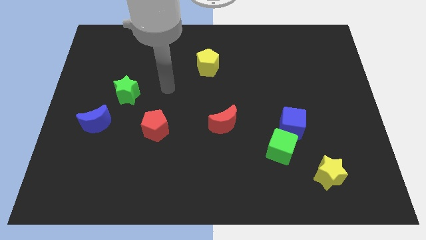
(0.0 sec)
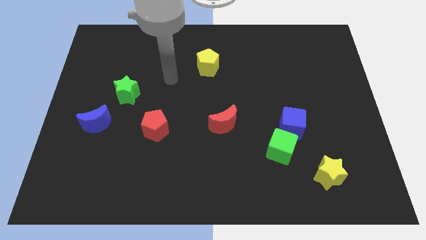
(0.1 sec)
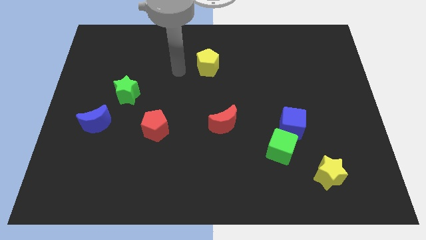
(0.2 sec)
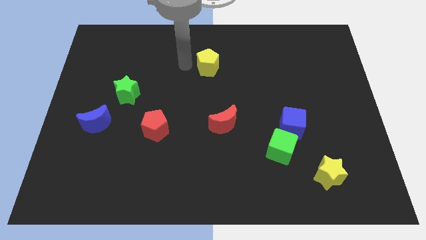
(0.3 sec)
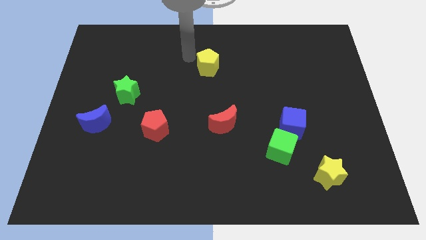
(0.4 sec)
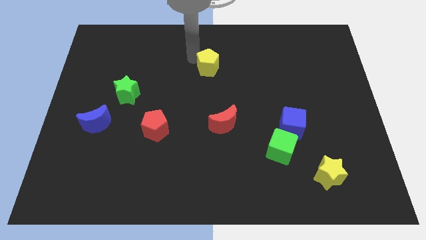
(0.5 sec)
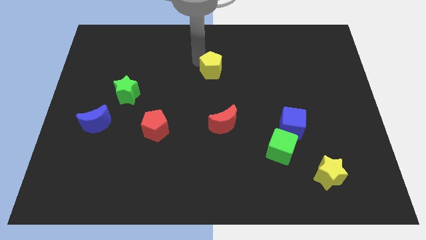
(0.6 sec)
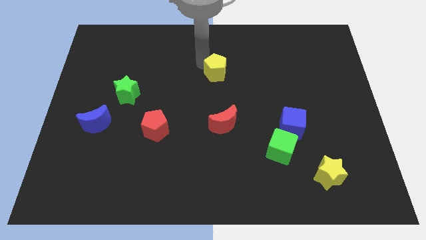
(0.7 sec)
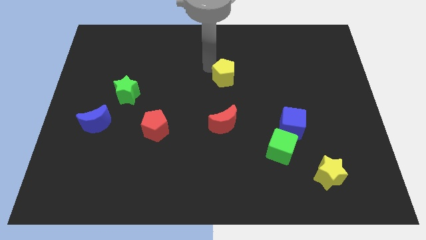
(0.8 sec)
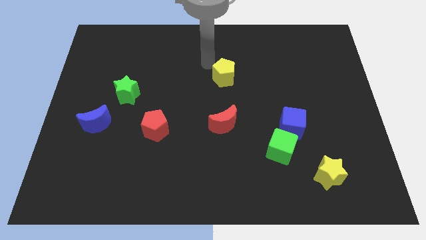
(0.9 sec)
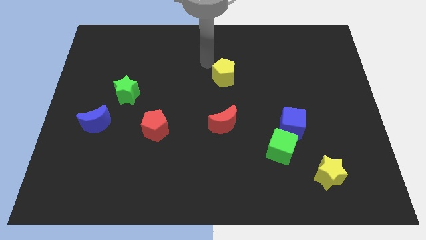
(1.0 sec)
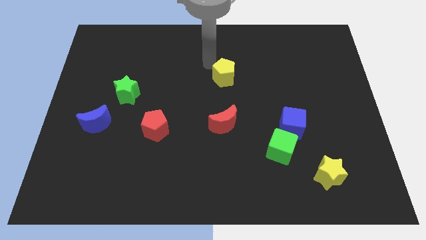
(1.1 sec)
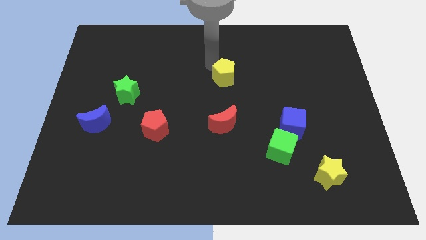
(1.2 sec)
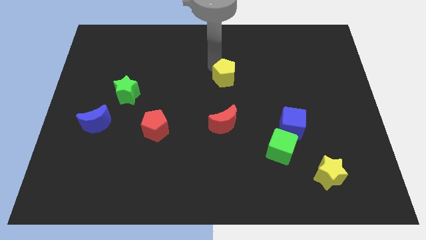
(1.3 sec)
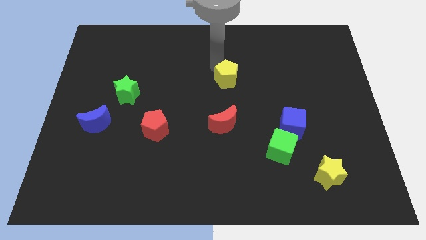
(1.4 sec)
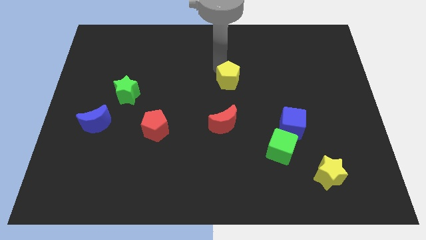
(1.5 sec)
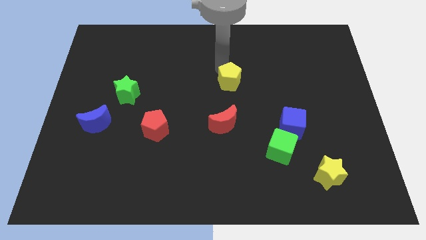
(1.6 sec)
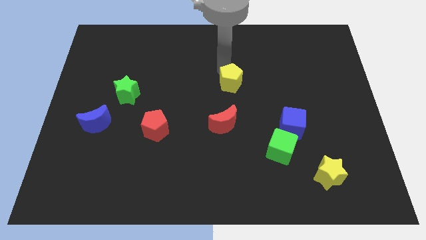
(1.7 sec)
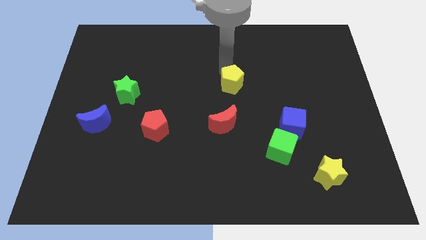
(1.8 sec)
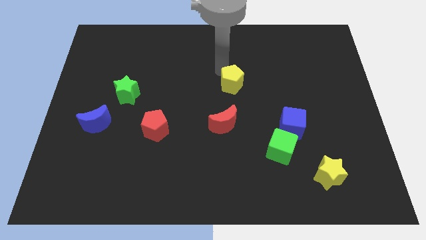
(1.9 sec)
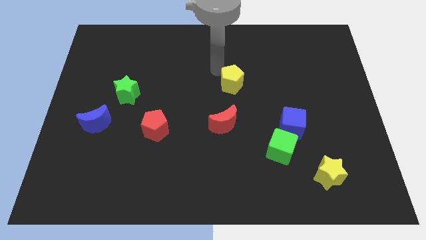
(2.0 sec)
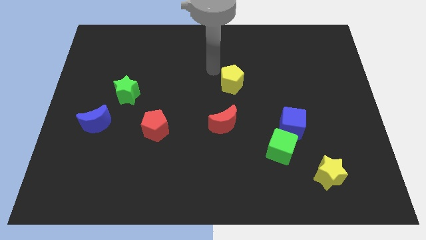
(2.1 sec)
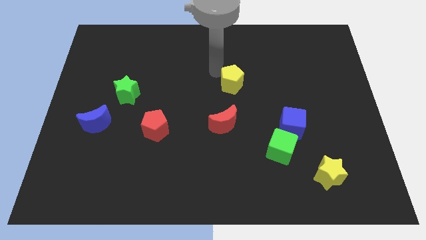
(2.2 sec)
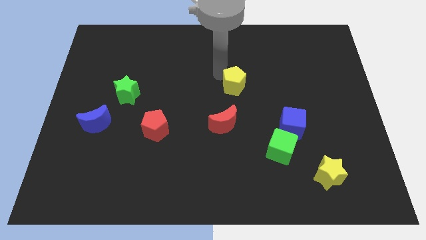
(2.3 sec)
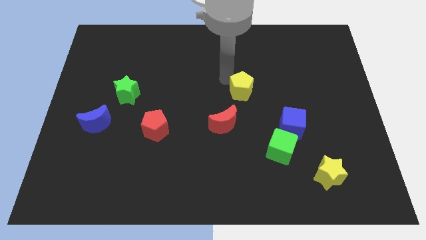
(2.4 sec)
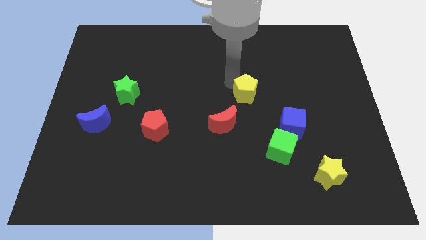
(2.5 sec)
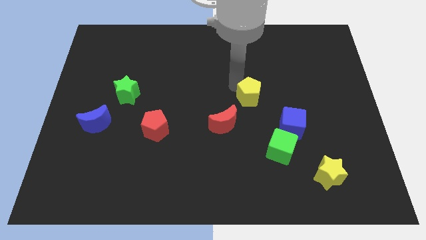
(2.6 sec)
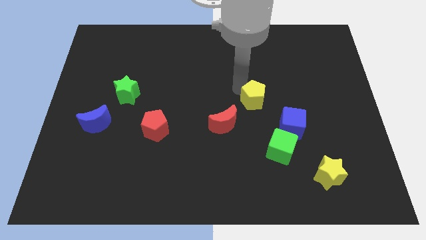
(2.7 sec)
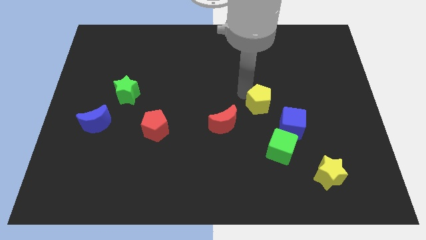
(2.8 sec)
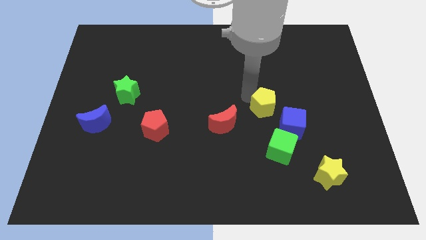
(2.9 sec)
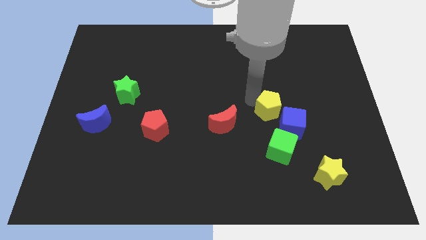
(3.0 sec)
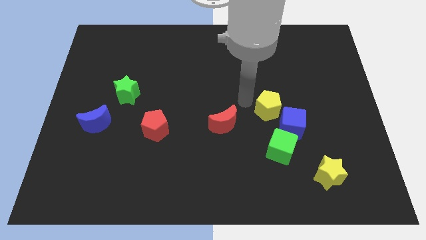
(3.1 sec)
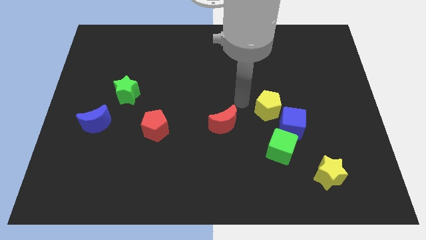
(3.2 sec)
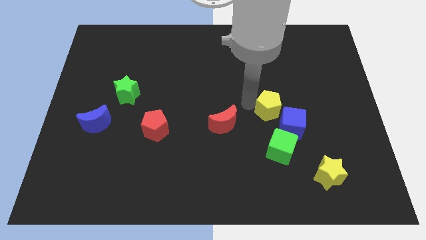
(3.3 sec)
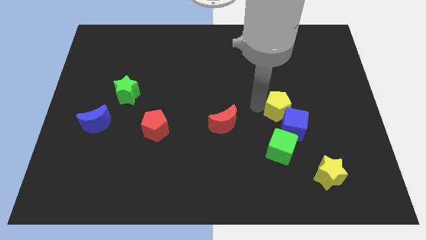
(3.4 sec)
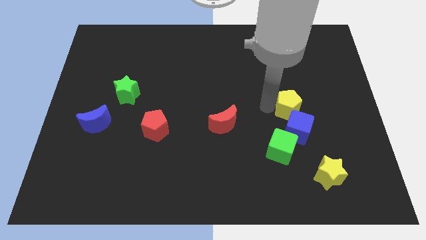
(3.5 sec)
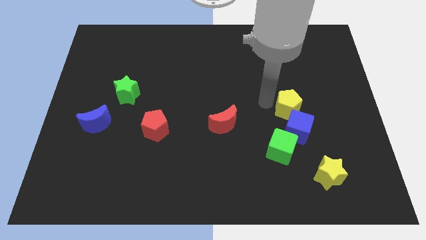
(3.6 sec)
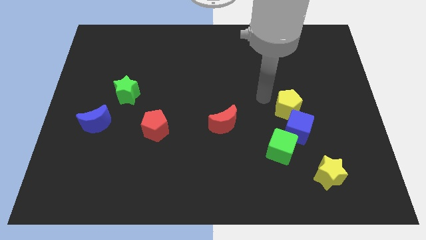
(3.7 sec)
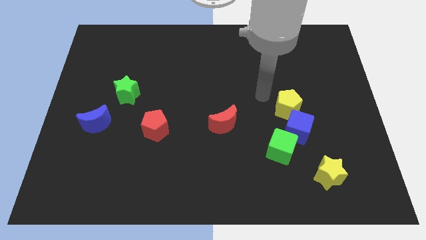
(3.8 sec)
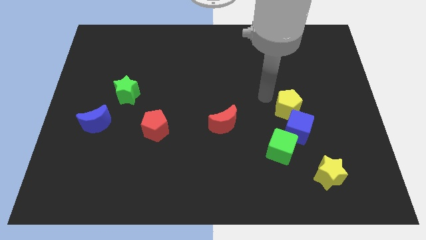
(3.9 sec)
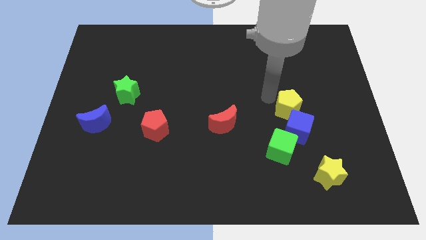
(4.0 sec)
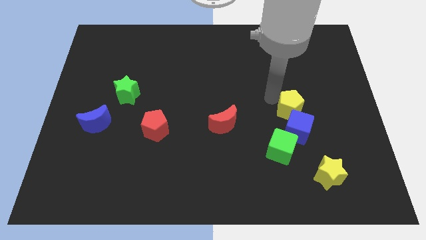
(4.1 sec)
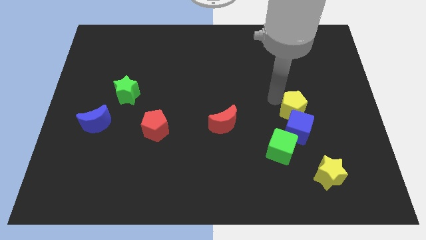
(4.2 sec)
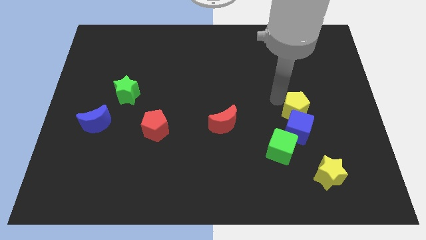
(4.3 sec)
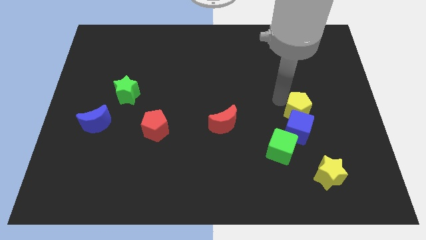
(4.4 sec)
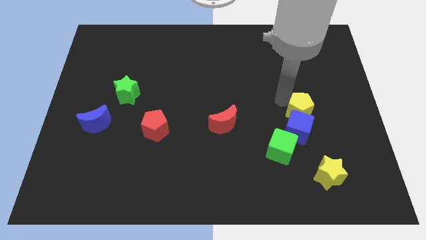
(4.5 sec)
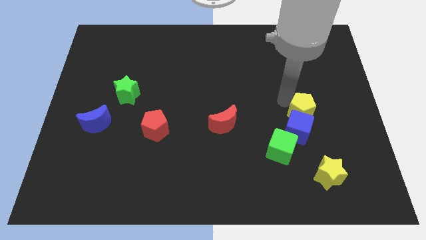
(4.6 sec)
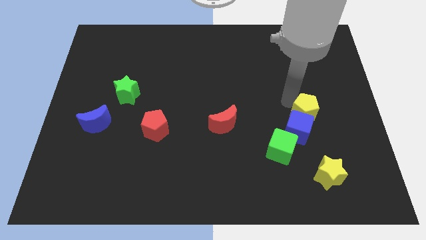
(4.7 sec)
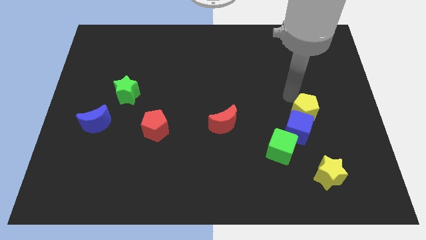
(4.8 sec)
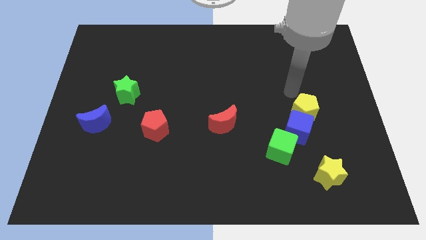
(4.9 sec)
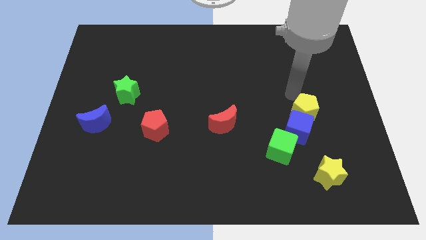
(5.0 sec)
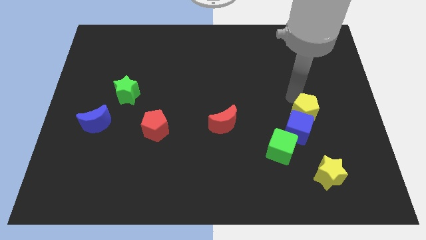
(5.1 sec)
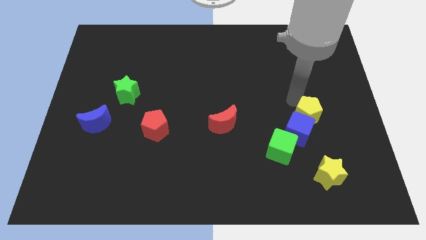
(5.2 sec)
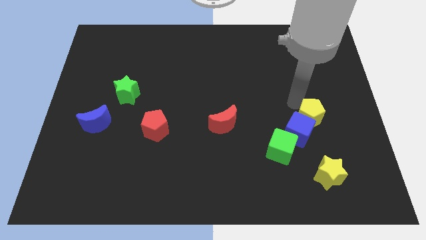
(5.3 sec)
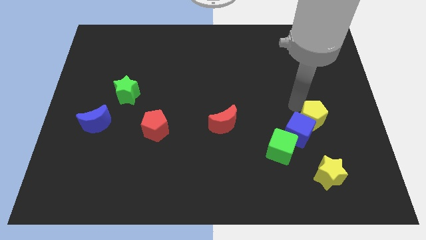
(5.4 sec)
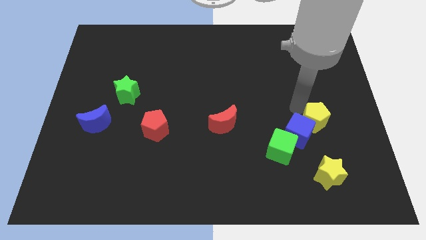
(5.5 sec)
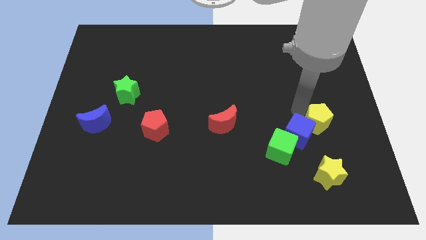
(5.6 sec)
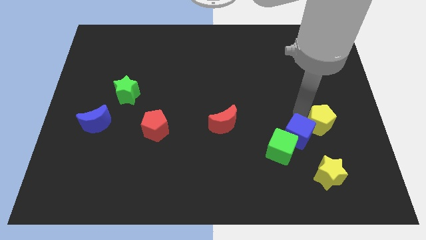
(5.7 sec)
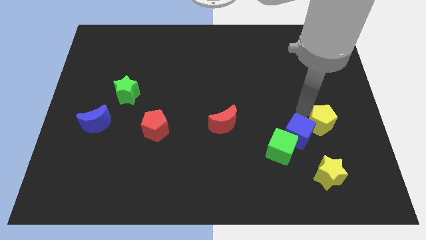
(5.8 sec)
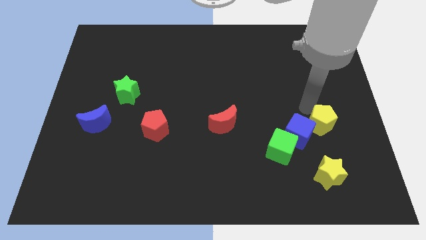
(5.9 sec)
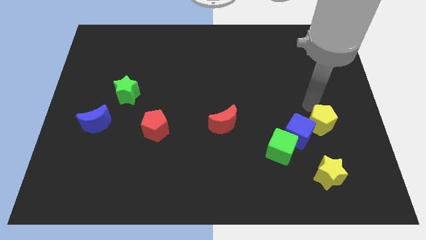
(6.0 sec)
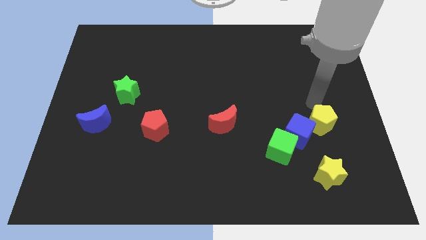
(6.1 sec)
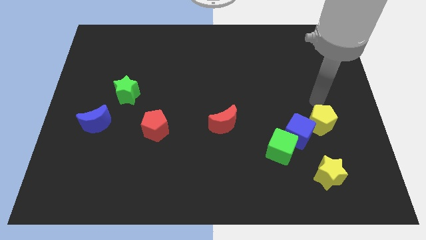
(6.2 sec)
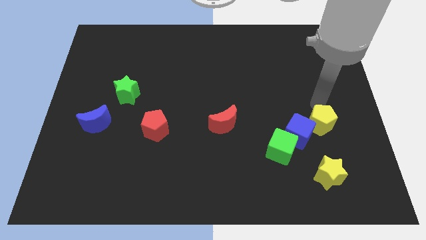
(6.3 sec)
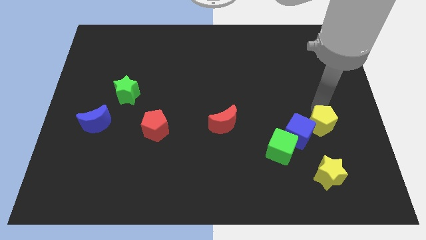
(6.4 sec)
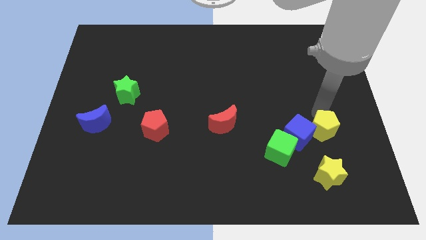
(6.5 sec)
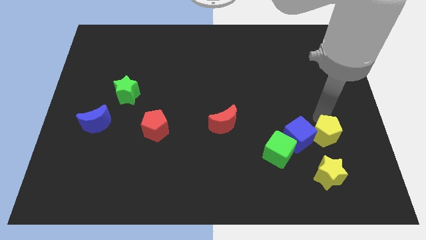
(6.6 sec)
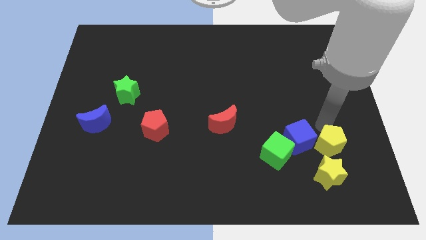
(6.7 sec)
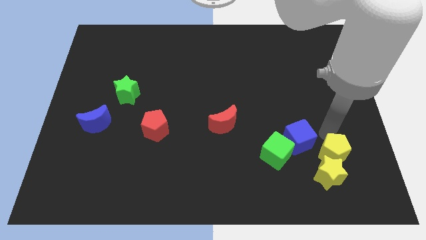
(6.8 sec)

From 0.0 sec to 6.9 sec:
push the yellow pentagon close to the yellow star

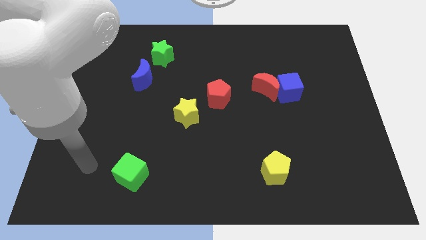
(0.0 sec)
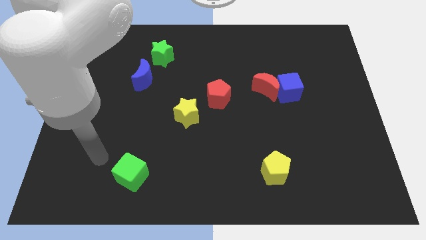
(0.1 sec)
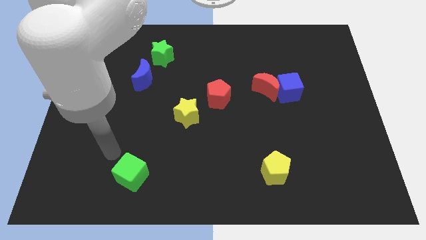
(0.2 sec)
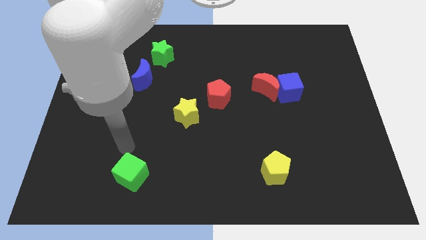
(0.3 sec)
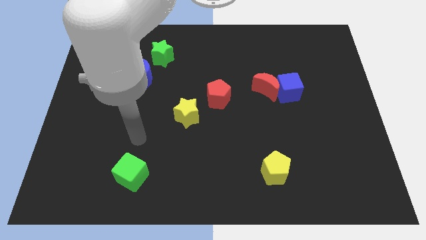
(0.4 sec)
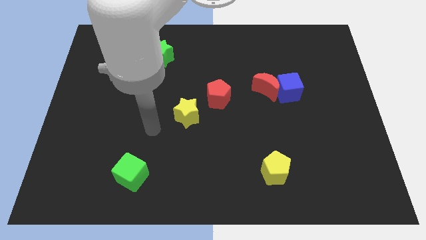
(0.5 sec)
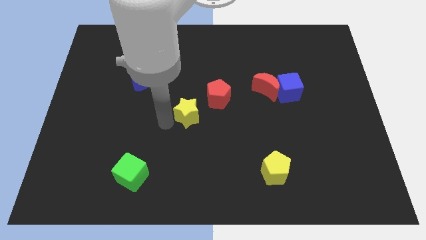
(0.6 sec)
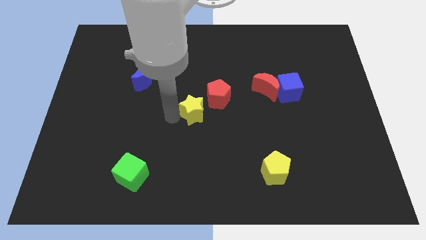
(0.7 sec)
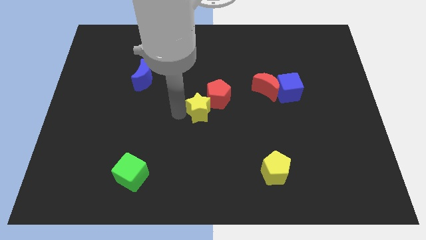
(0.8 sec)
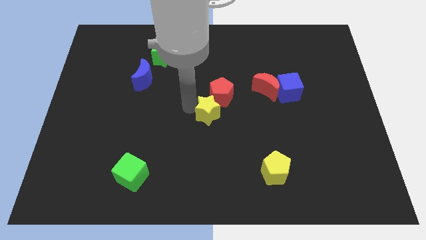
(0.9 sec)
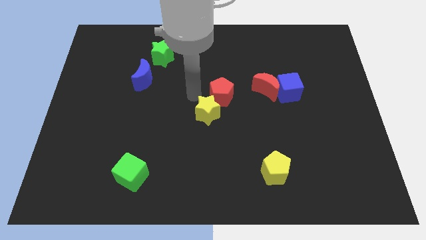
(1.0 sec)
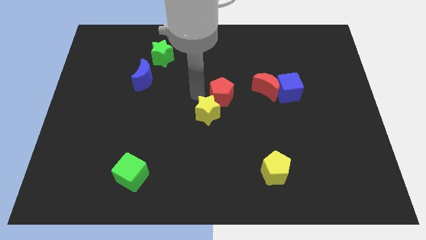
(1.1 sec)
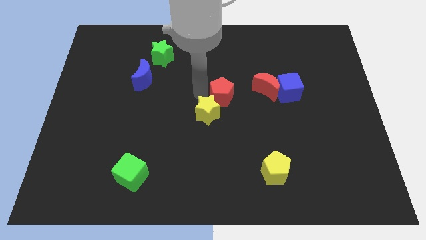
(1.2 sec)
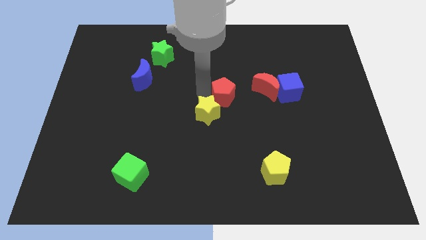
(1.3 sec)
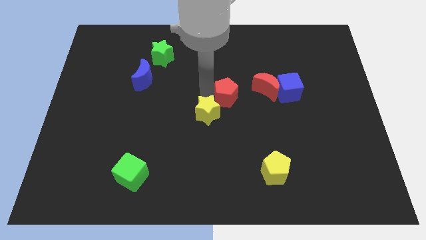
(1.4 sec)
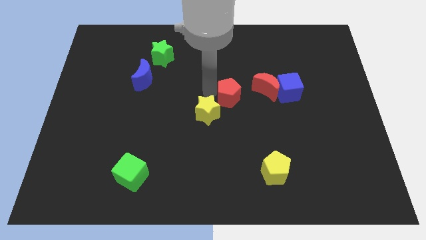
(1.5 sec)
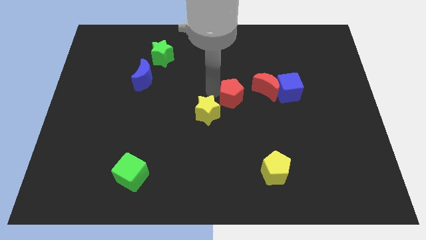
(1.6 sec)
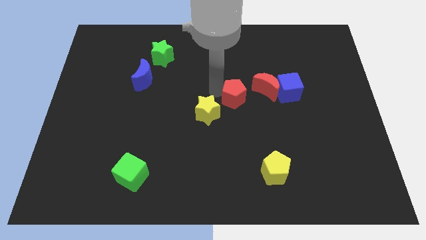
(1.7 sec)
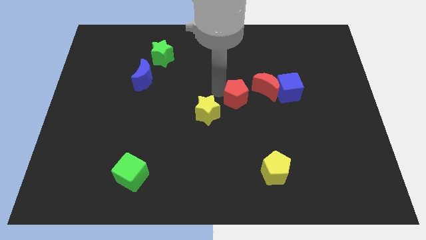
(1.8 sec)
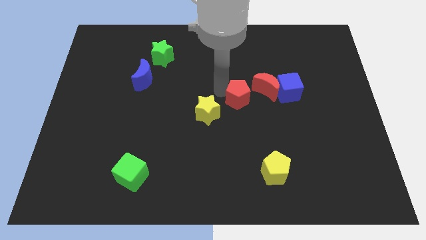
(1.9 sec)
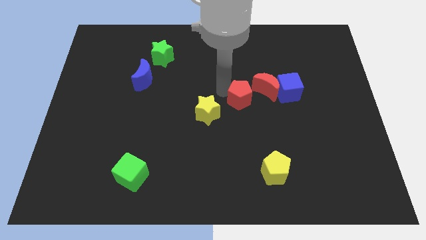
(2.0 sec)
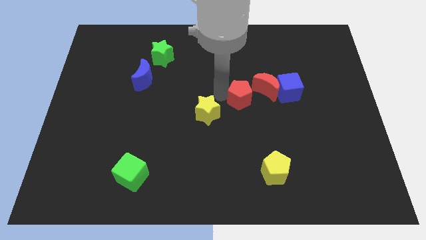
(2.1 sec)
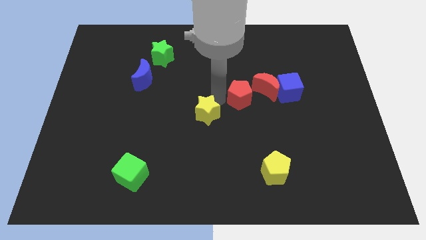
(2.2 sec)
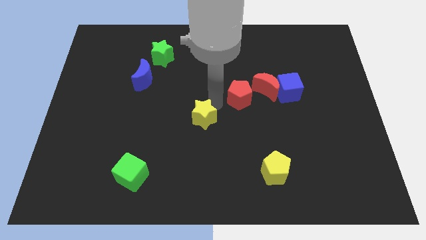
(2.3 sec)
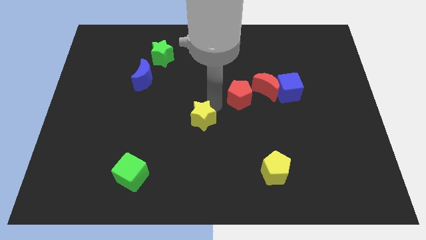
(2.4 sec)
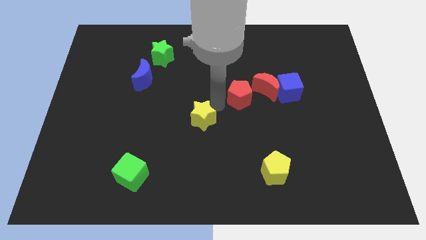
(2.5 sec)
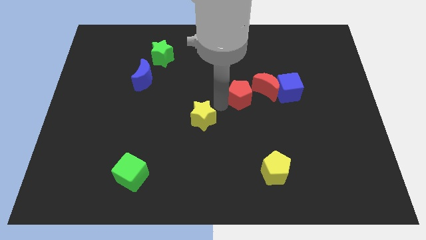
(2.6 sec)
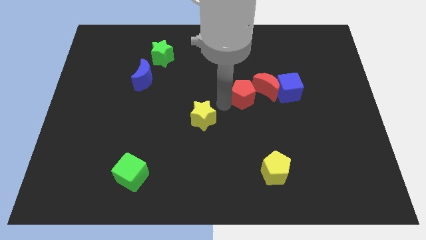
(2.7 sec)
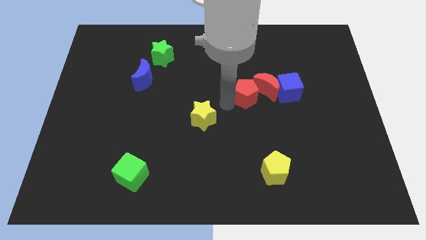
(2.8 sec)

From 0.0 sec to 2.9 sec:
put the red pentagon close to the red moon
